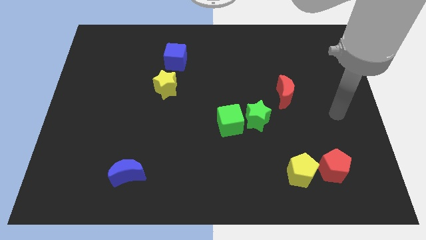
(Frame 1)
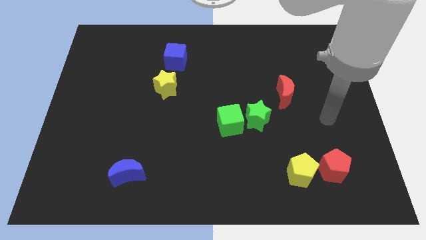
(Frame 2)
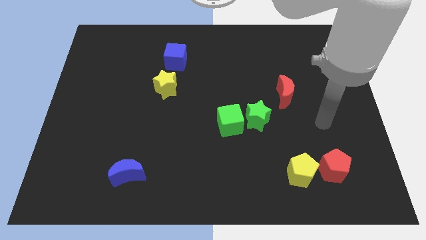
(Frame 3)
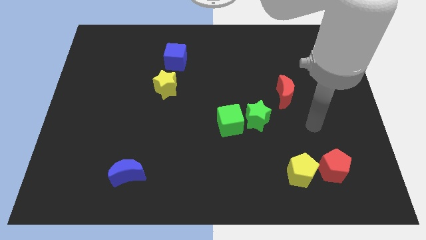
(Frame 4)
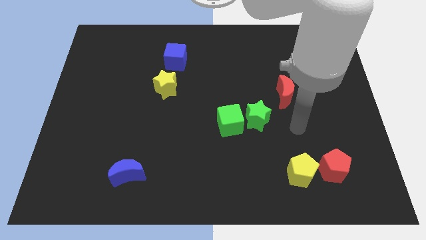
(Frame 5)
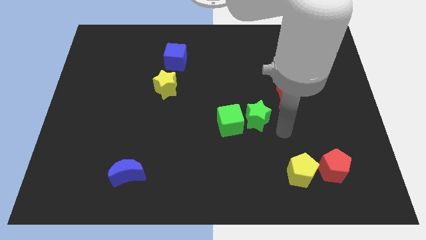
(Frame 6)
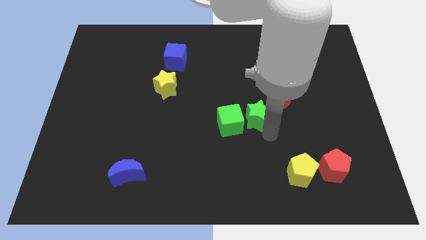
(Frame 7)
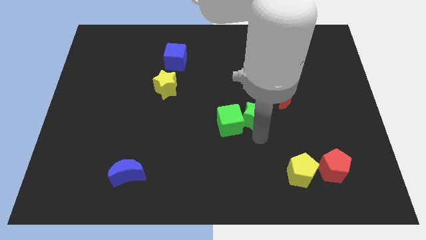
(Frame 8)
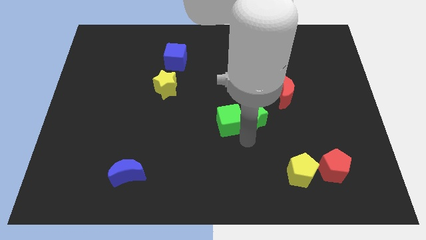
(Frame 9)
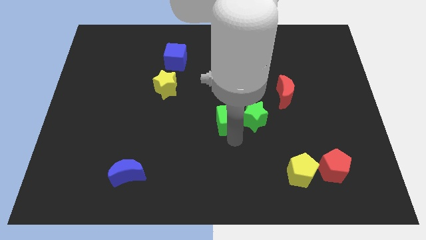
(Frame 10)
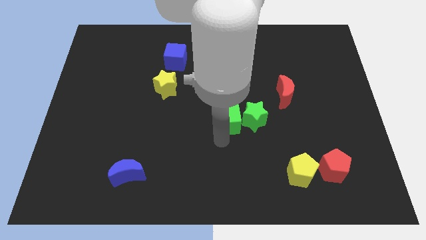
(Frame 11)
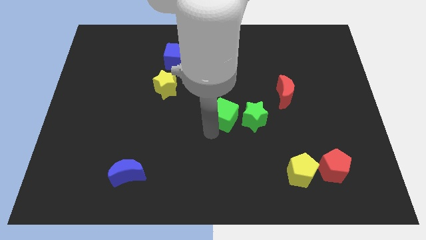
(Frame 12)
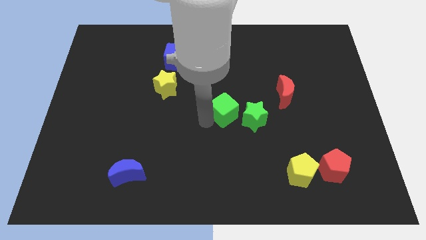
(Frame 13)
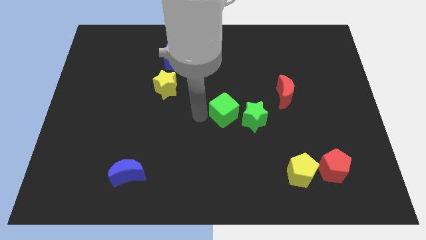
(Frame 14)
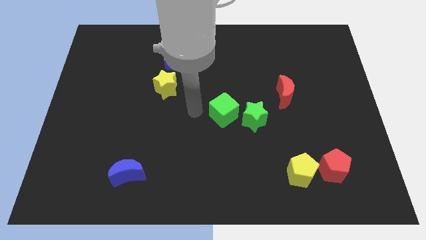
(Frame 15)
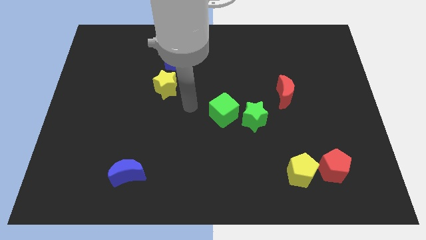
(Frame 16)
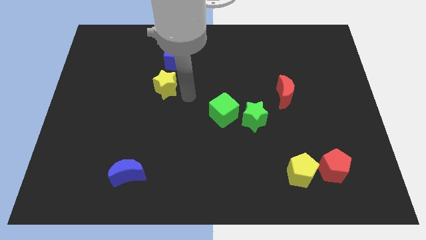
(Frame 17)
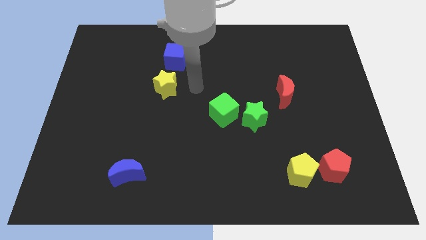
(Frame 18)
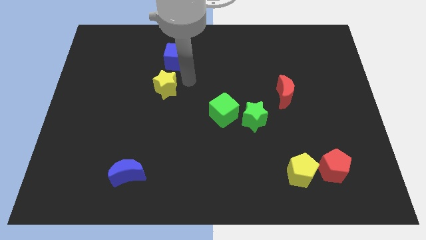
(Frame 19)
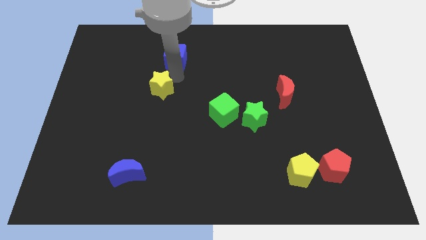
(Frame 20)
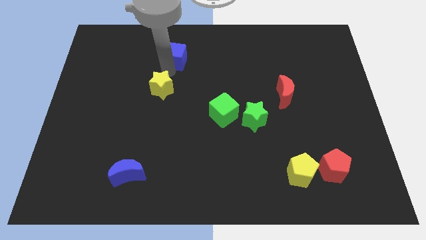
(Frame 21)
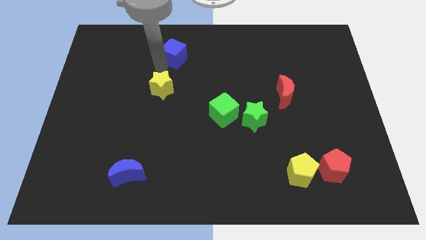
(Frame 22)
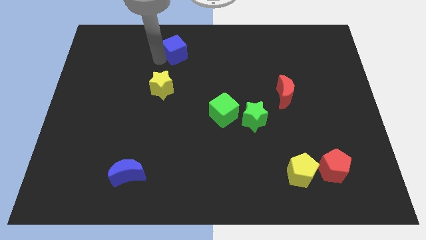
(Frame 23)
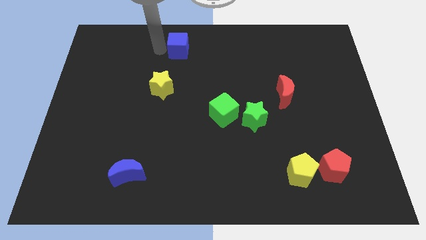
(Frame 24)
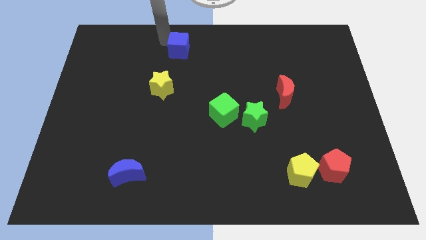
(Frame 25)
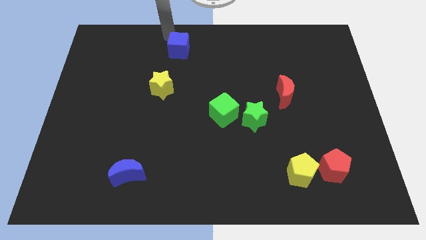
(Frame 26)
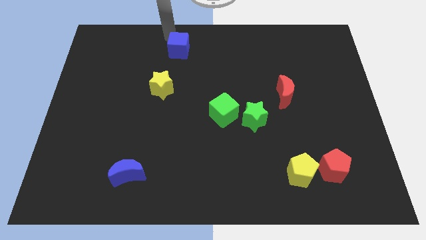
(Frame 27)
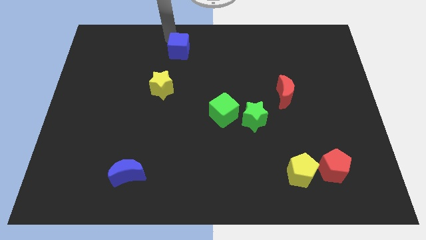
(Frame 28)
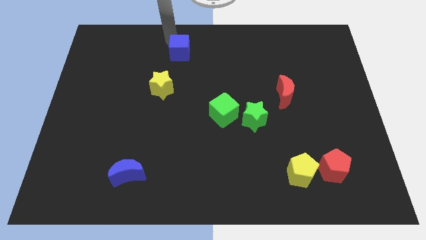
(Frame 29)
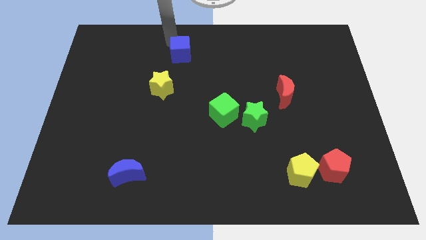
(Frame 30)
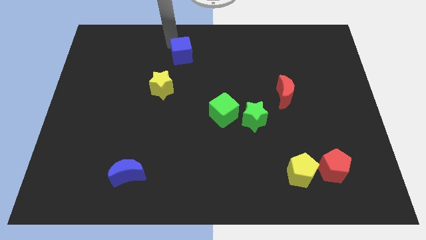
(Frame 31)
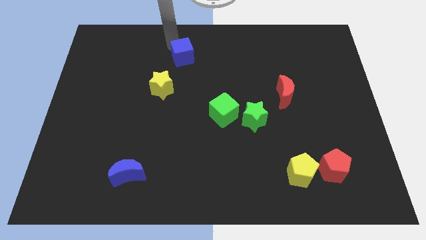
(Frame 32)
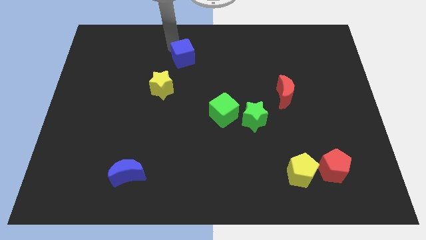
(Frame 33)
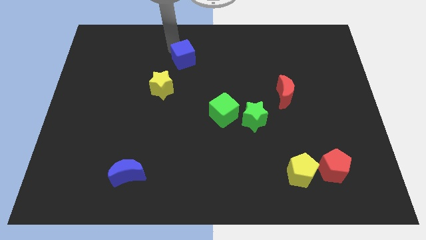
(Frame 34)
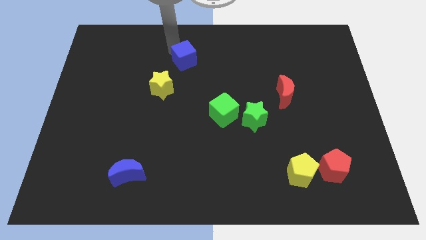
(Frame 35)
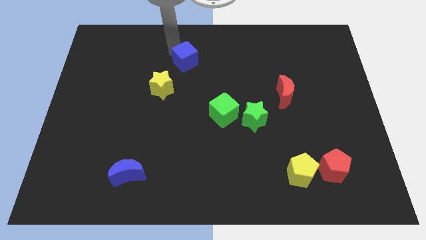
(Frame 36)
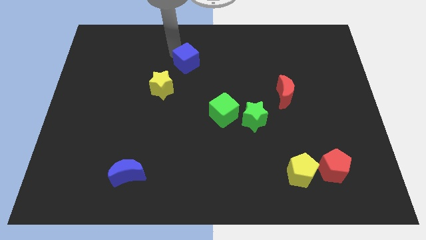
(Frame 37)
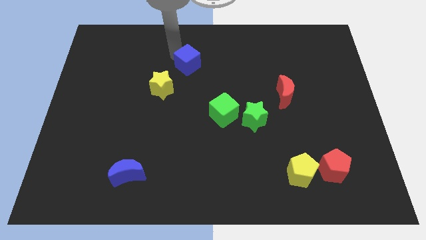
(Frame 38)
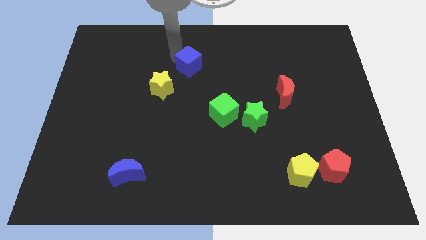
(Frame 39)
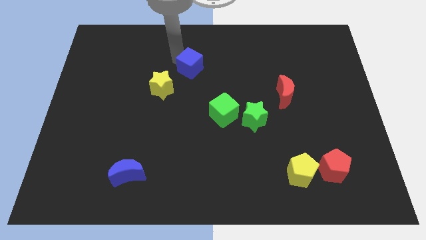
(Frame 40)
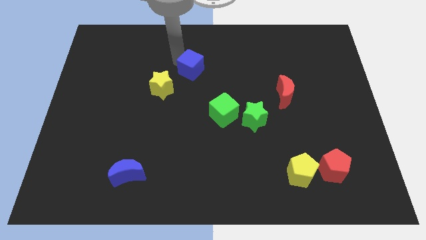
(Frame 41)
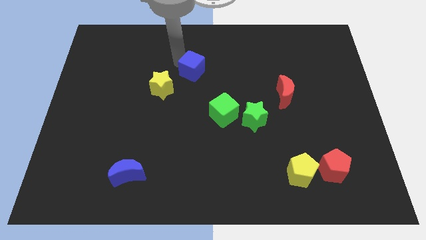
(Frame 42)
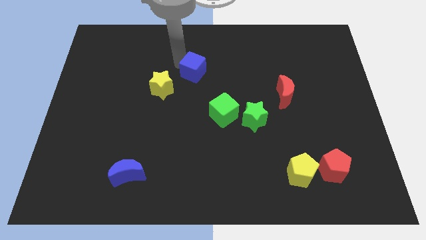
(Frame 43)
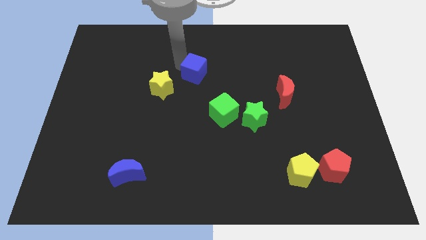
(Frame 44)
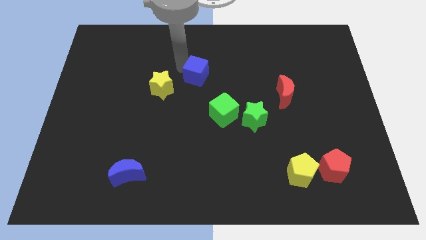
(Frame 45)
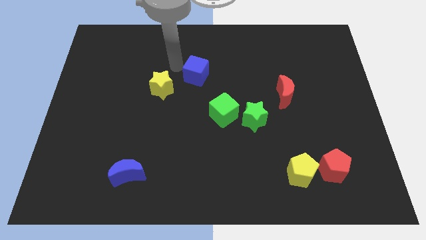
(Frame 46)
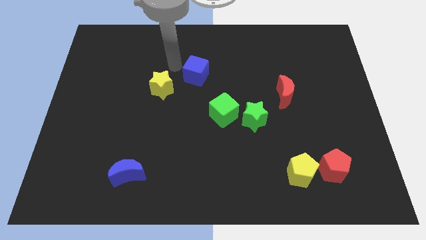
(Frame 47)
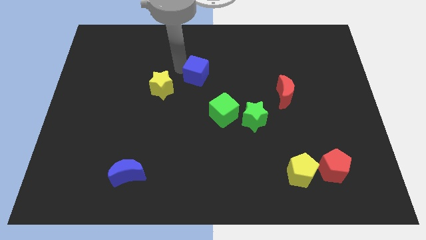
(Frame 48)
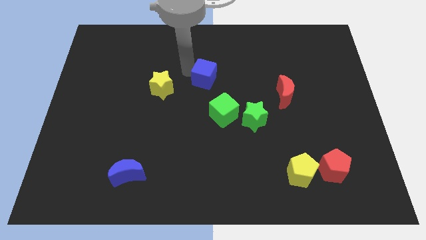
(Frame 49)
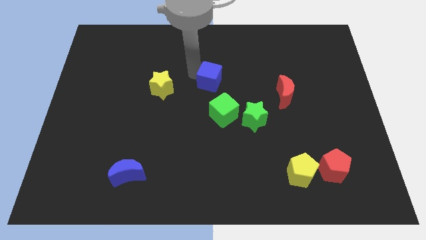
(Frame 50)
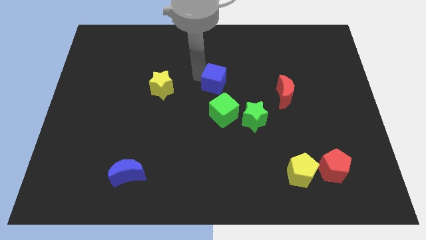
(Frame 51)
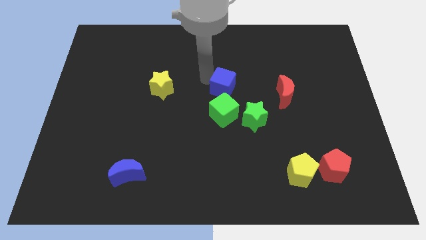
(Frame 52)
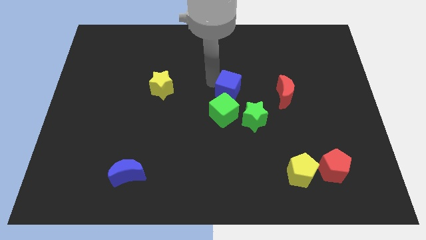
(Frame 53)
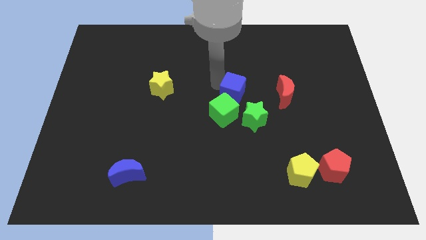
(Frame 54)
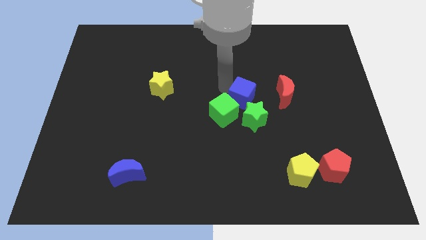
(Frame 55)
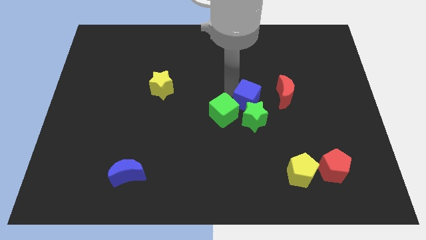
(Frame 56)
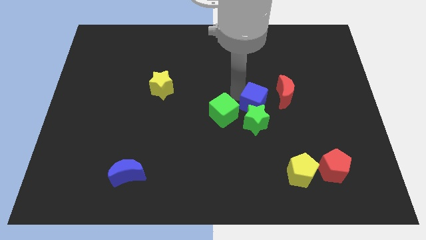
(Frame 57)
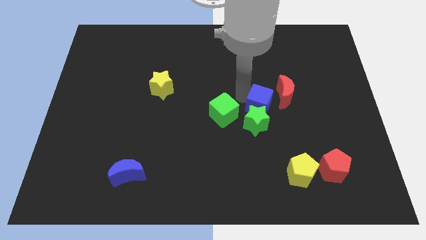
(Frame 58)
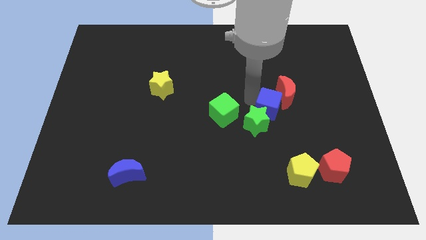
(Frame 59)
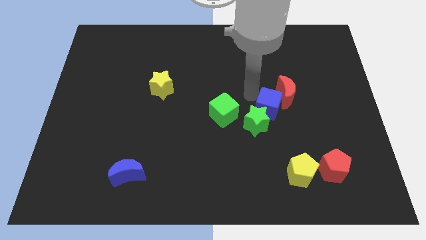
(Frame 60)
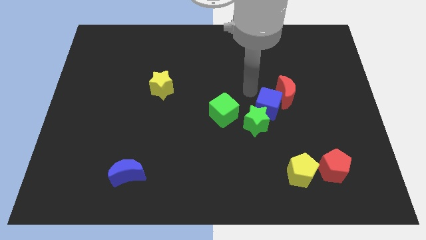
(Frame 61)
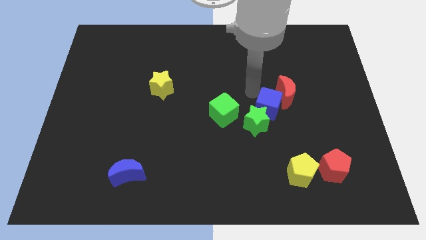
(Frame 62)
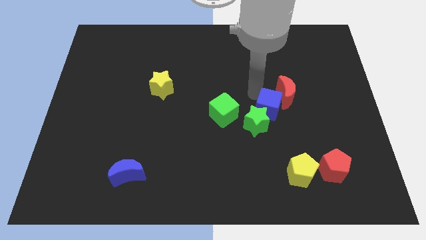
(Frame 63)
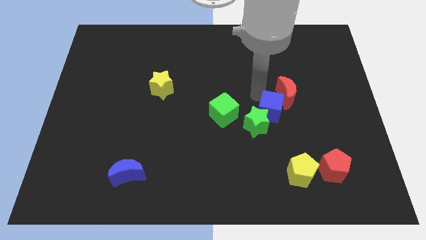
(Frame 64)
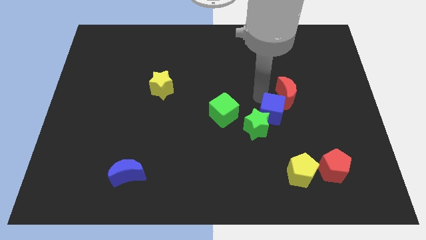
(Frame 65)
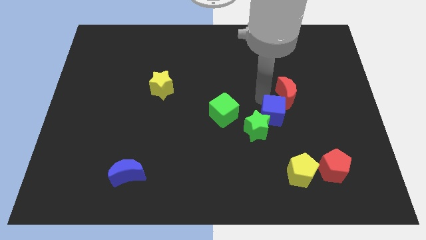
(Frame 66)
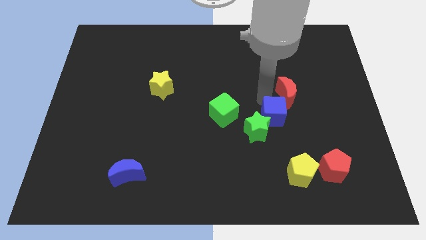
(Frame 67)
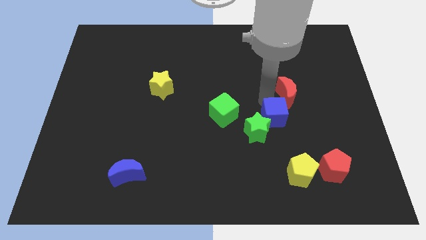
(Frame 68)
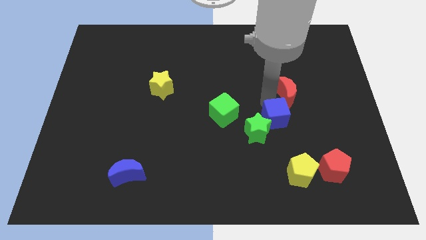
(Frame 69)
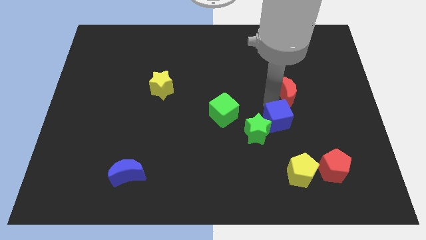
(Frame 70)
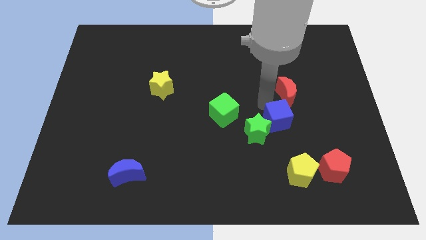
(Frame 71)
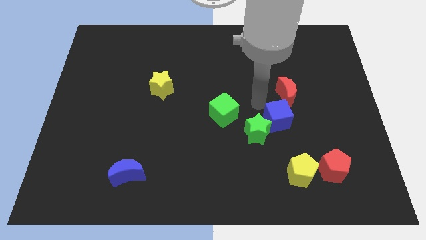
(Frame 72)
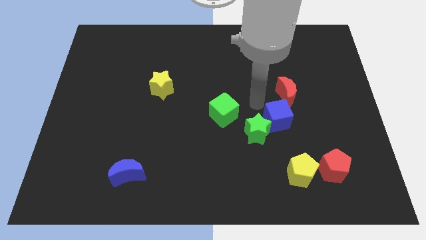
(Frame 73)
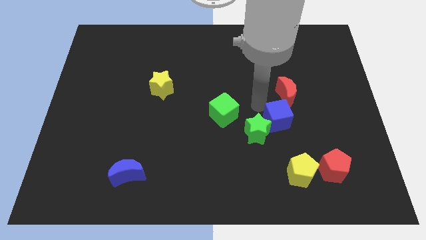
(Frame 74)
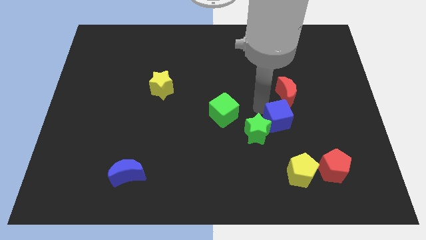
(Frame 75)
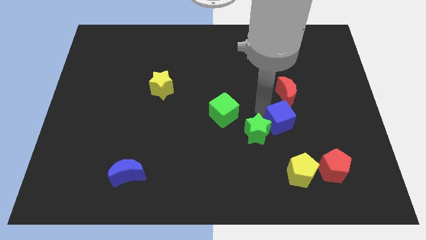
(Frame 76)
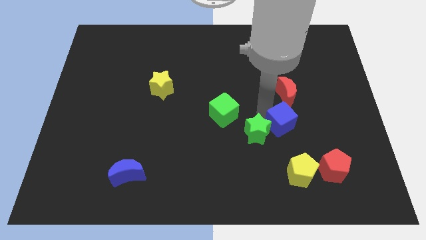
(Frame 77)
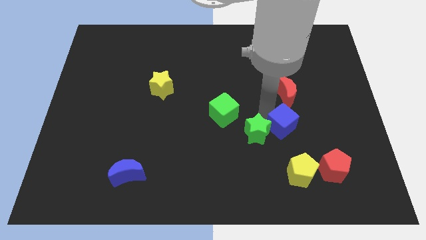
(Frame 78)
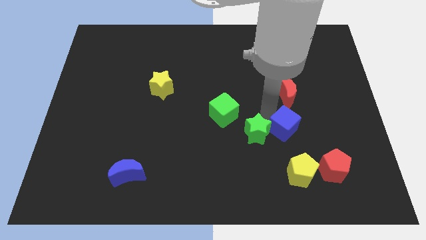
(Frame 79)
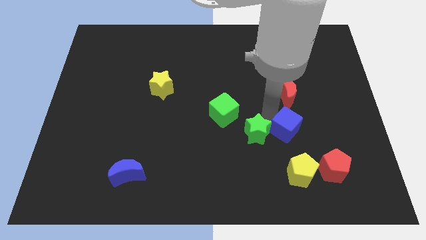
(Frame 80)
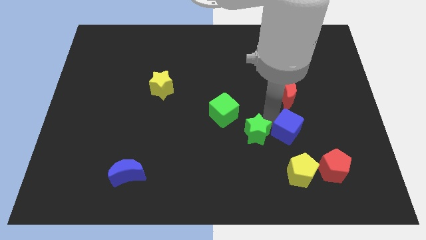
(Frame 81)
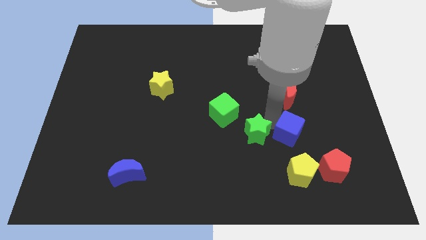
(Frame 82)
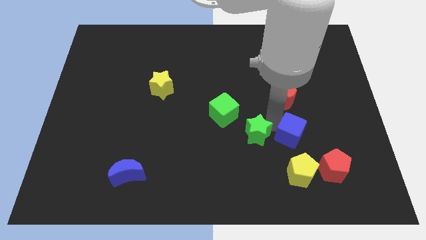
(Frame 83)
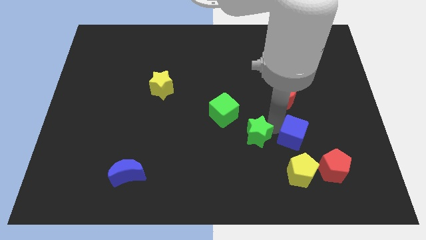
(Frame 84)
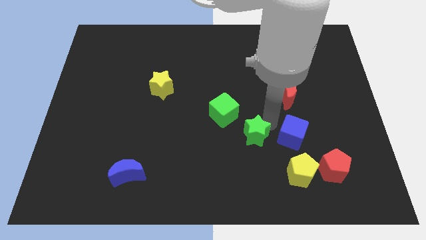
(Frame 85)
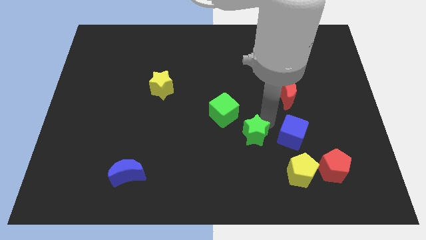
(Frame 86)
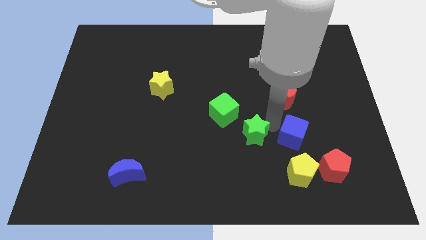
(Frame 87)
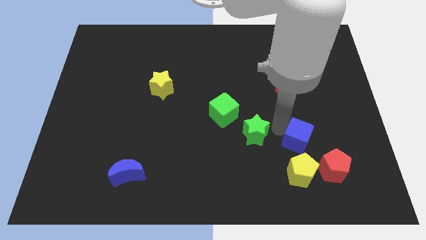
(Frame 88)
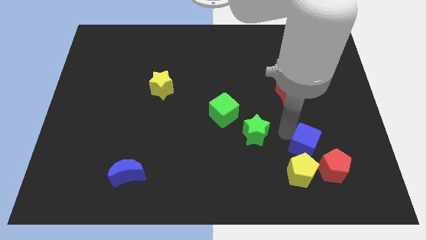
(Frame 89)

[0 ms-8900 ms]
move the blue cube to the top right of the yellow pentagon
